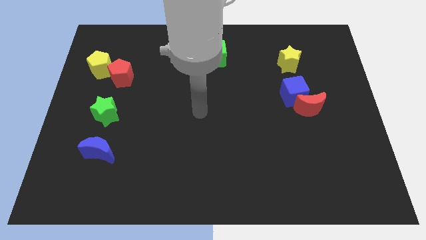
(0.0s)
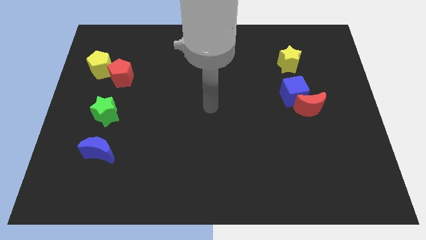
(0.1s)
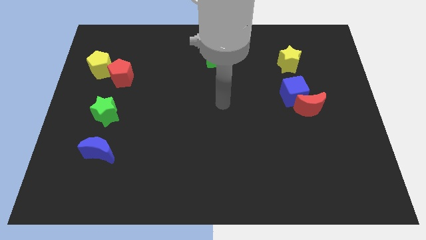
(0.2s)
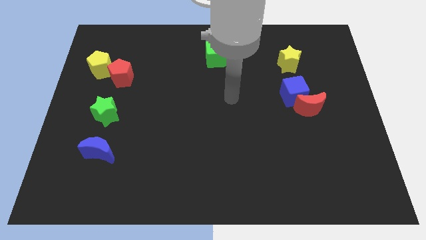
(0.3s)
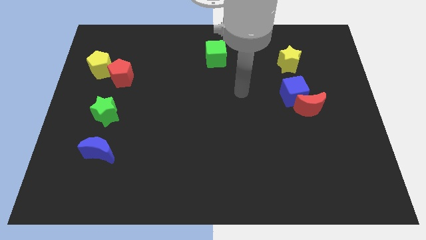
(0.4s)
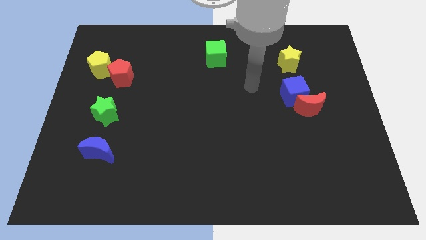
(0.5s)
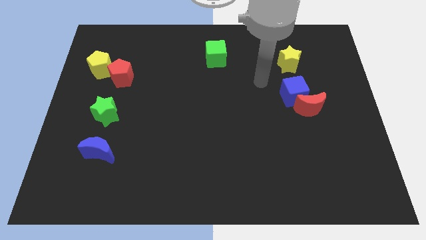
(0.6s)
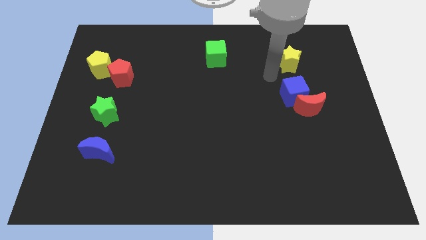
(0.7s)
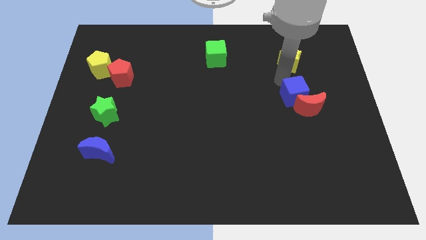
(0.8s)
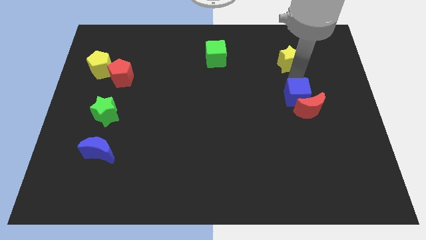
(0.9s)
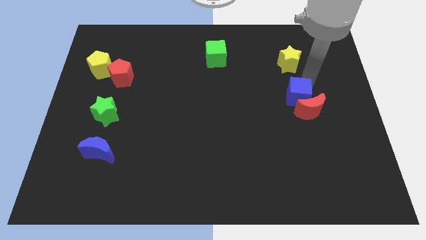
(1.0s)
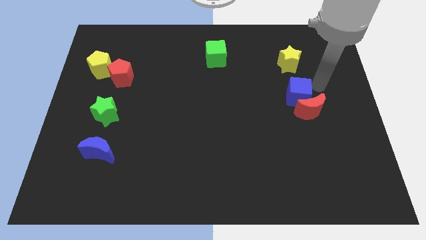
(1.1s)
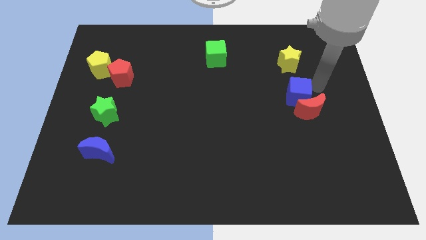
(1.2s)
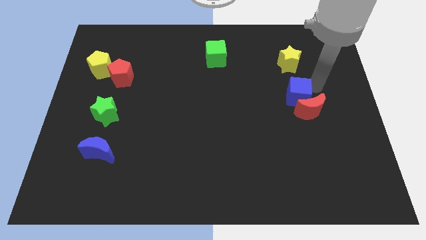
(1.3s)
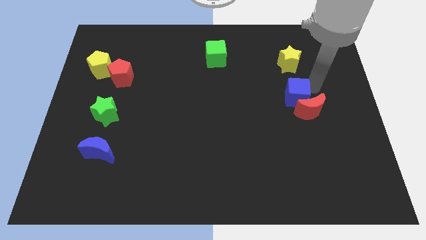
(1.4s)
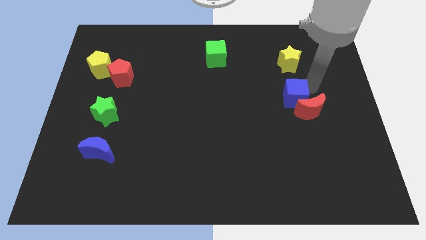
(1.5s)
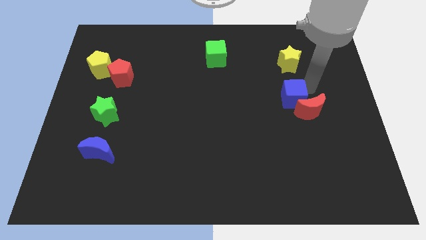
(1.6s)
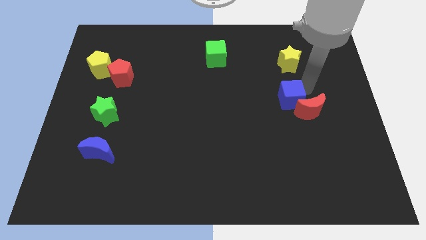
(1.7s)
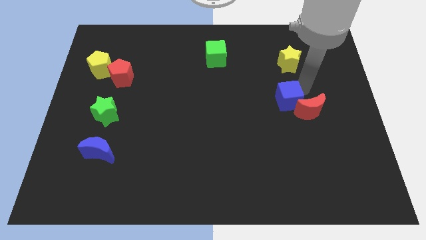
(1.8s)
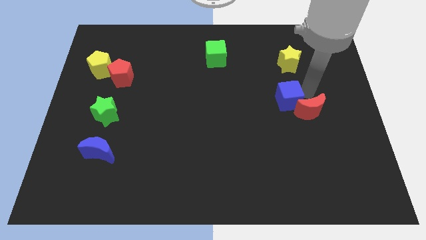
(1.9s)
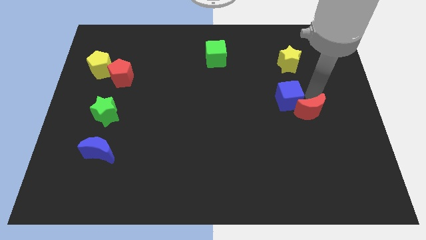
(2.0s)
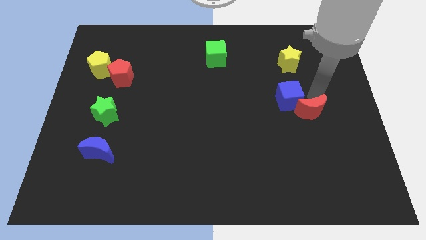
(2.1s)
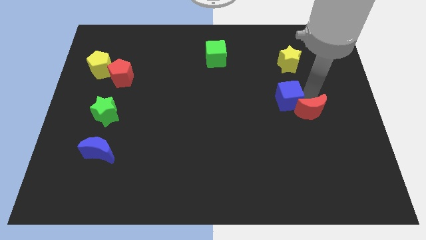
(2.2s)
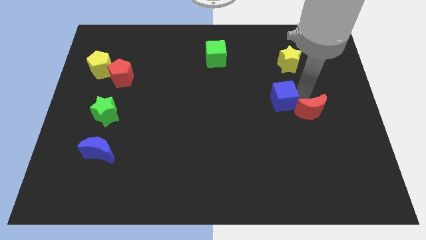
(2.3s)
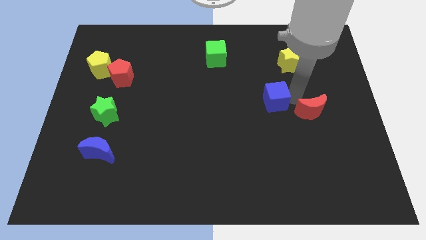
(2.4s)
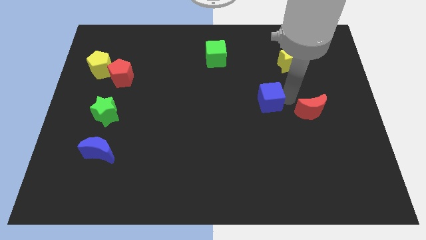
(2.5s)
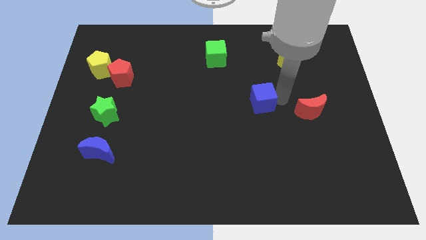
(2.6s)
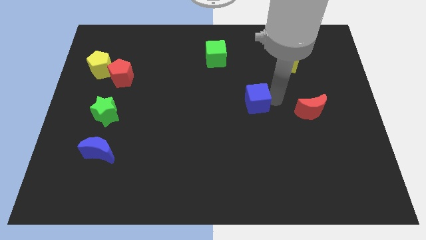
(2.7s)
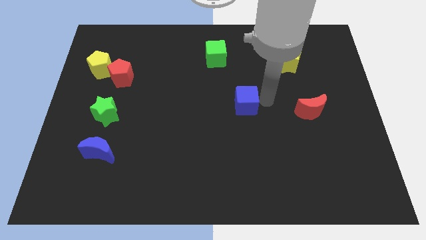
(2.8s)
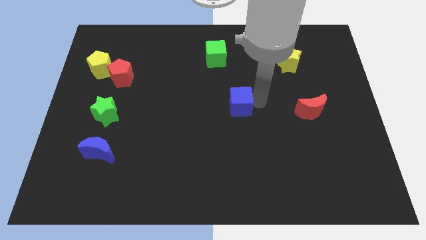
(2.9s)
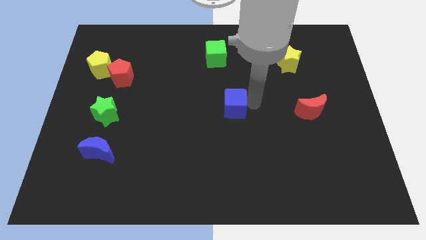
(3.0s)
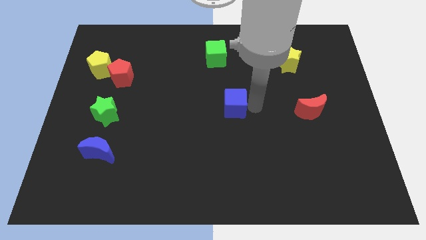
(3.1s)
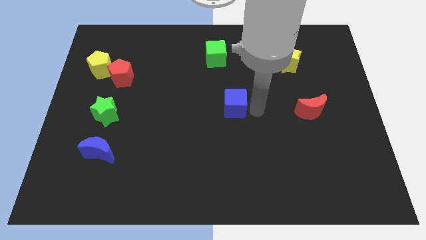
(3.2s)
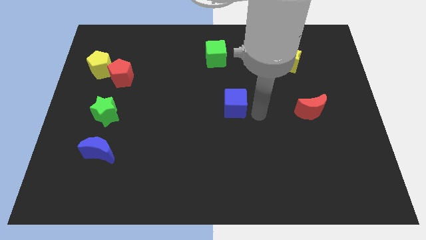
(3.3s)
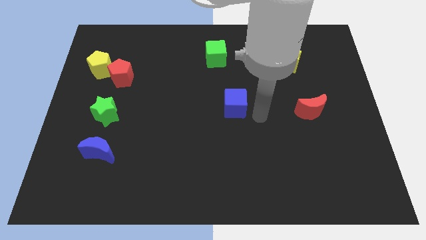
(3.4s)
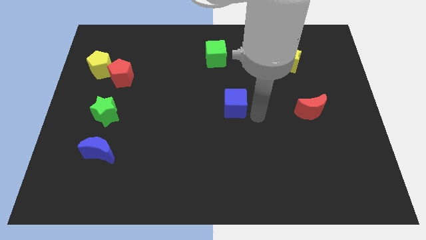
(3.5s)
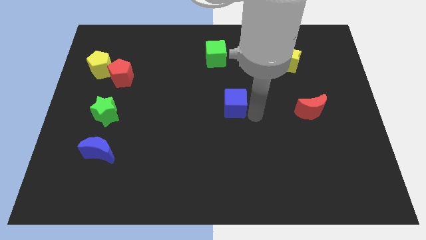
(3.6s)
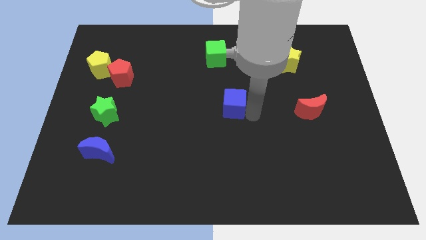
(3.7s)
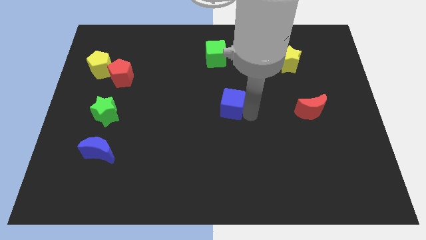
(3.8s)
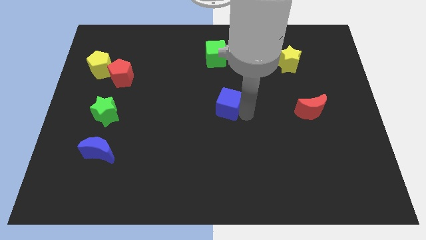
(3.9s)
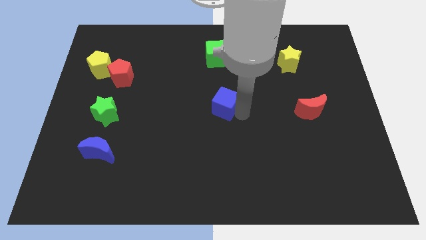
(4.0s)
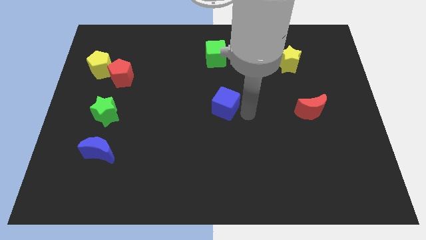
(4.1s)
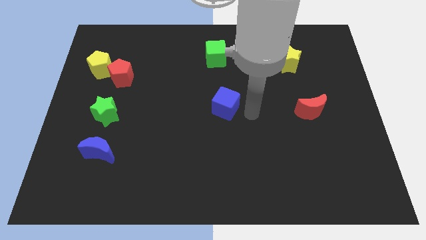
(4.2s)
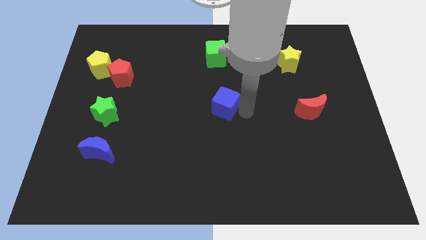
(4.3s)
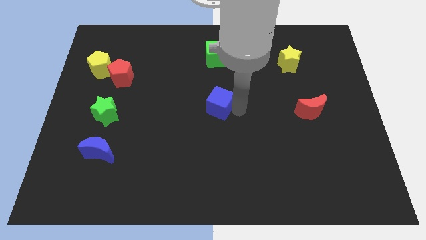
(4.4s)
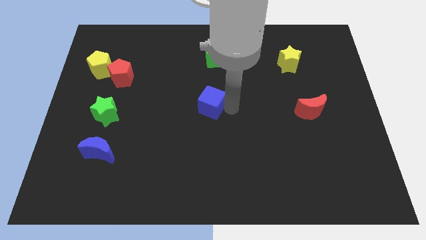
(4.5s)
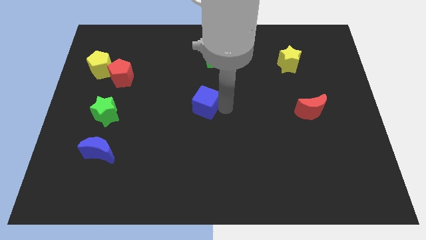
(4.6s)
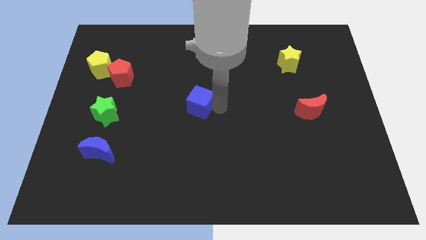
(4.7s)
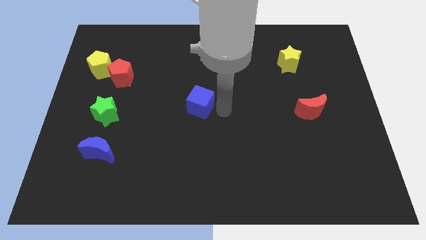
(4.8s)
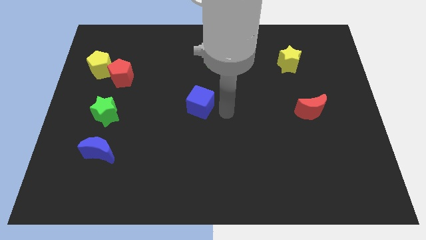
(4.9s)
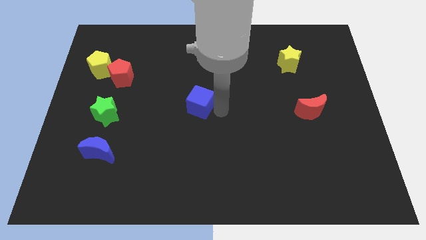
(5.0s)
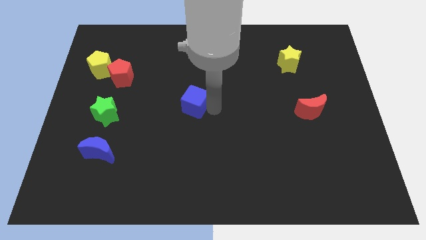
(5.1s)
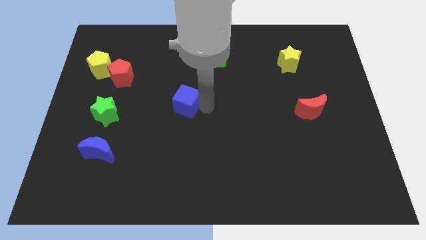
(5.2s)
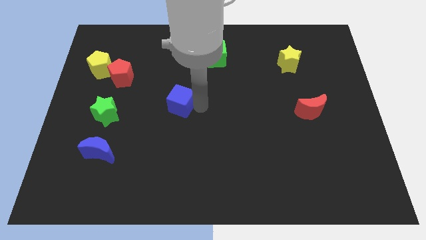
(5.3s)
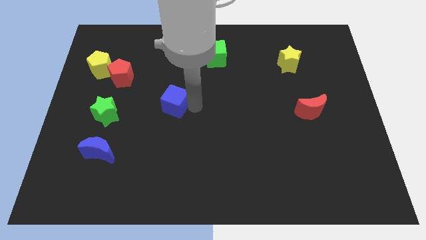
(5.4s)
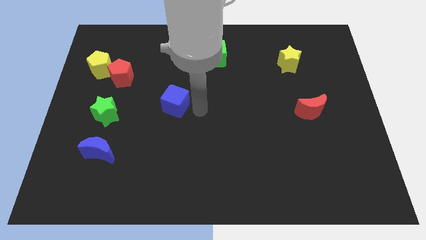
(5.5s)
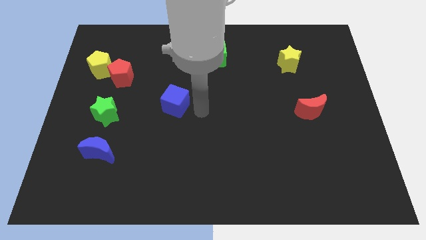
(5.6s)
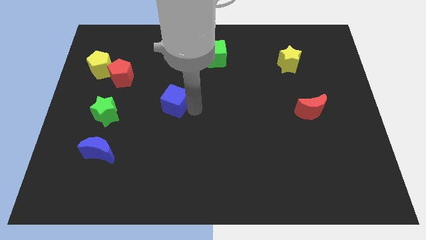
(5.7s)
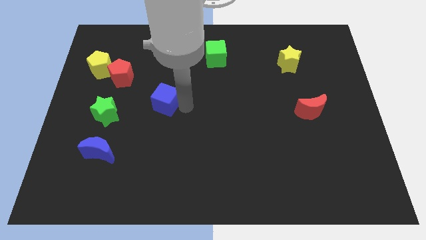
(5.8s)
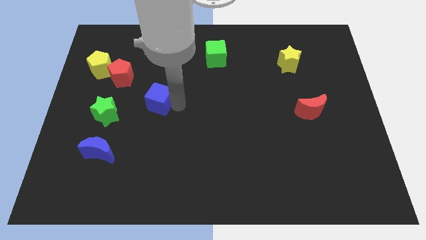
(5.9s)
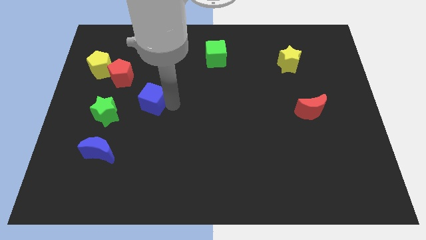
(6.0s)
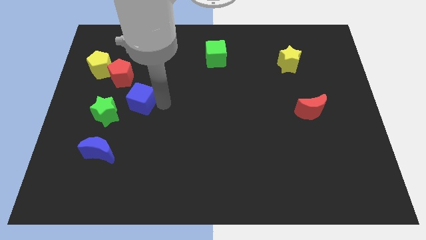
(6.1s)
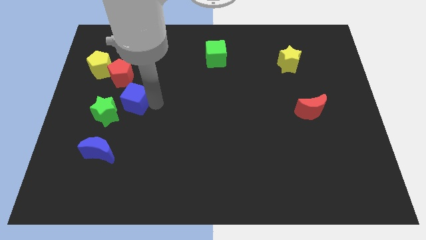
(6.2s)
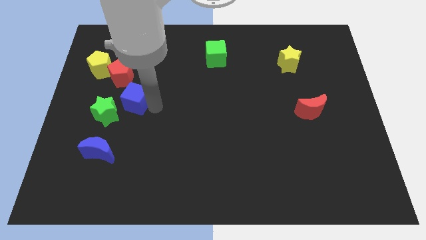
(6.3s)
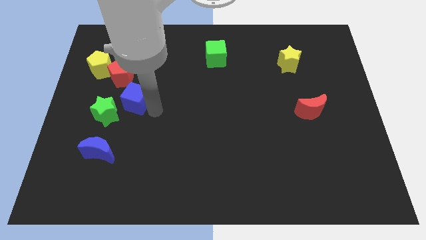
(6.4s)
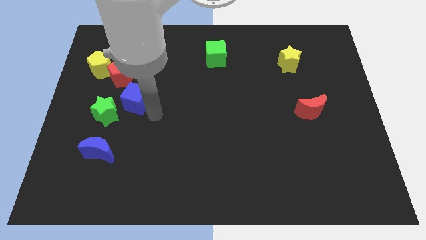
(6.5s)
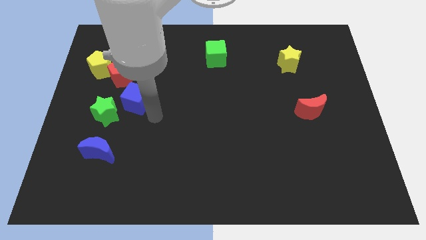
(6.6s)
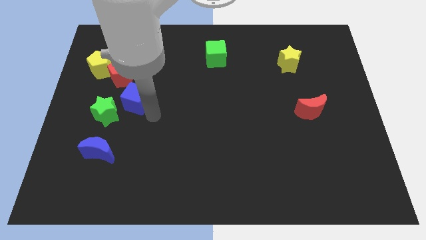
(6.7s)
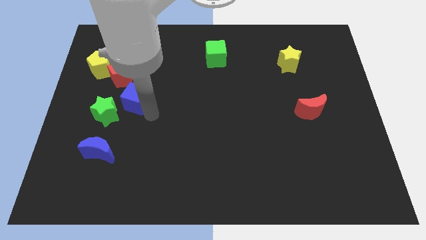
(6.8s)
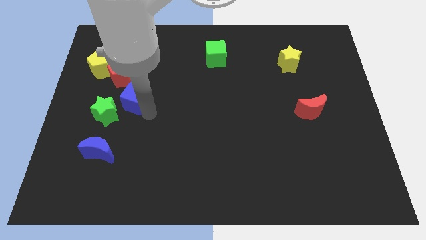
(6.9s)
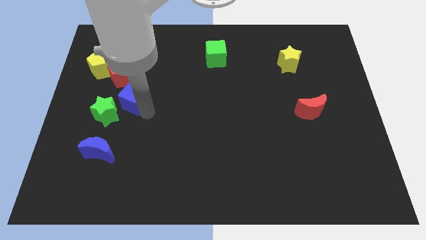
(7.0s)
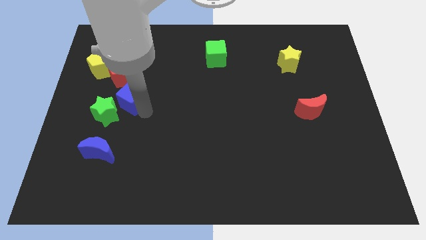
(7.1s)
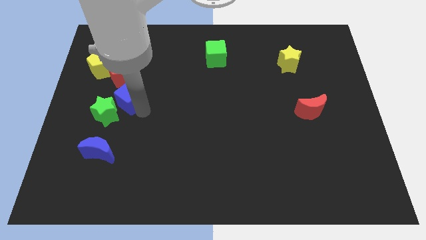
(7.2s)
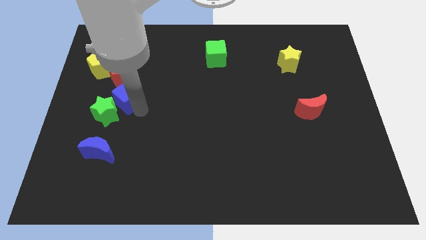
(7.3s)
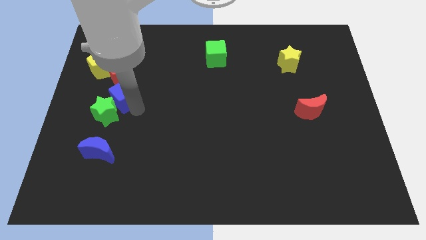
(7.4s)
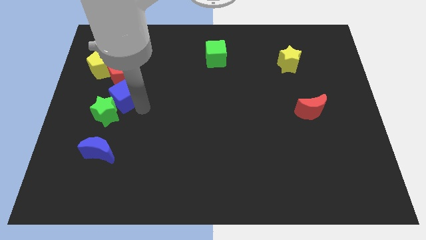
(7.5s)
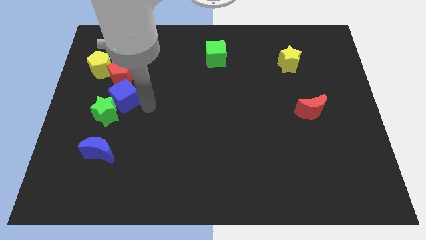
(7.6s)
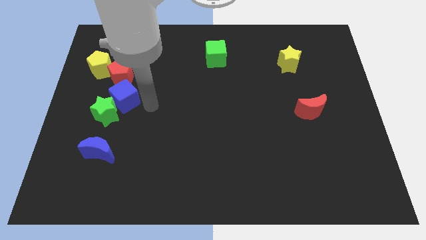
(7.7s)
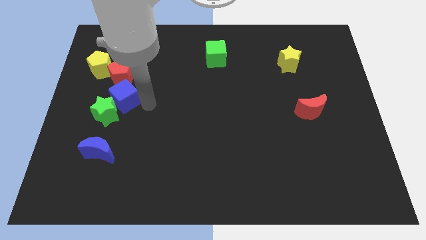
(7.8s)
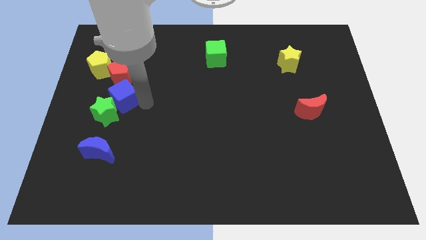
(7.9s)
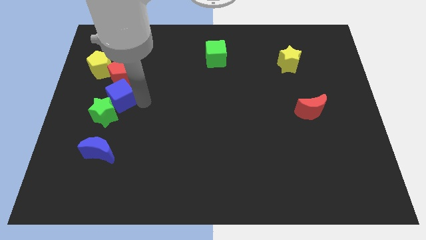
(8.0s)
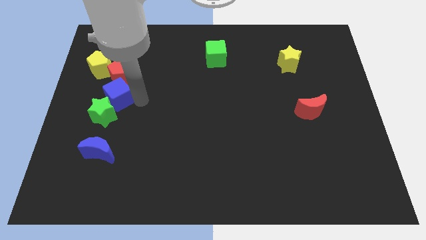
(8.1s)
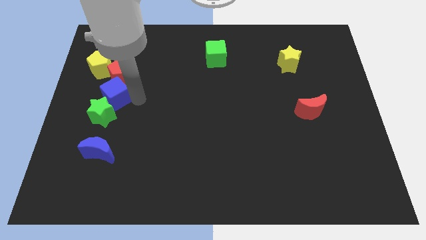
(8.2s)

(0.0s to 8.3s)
slide the blue cube to the bottom left side of the red pentagon
